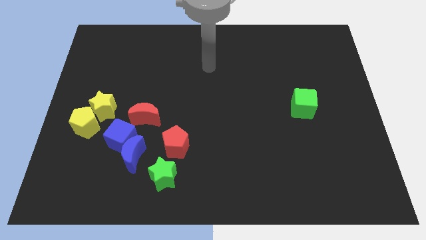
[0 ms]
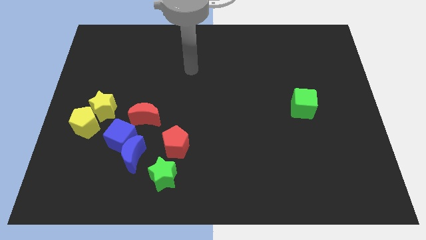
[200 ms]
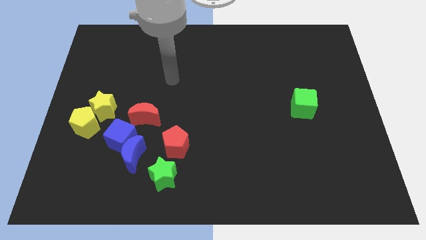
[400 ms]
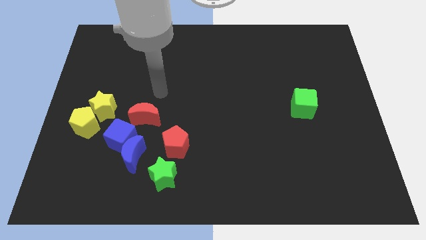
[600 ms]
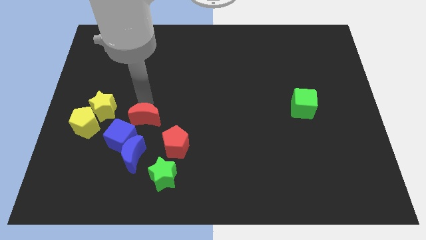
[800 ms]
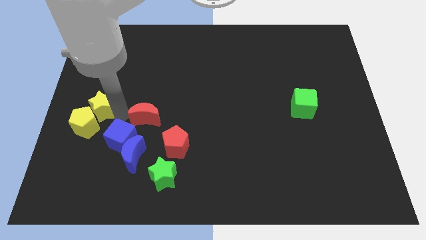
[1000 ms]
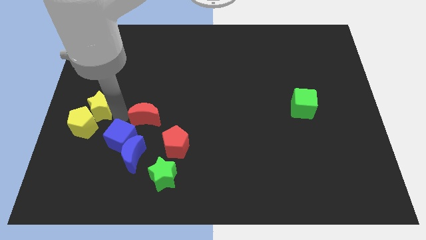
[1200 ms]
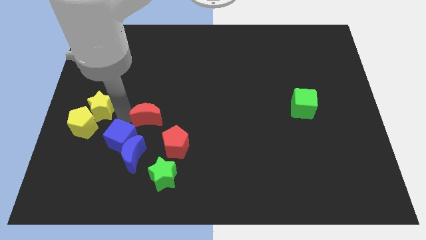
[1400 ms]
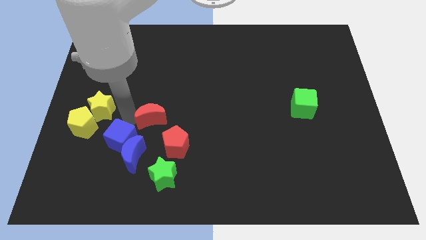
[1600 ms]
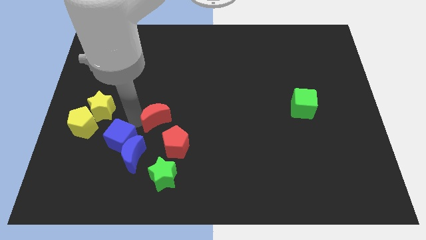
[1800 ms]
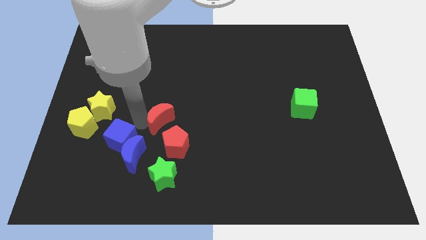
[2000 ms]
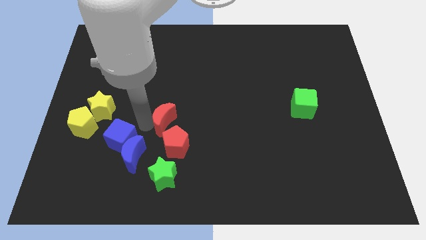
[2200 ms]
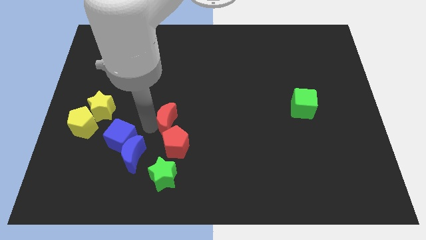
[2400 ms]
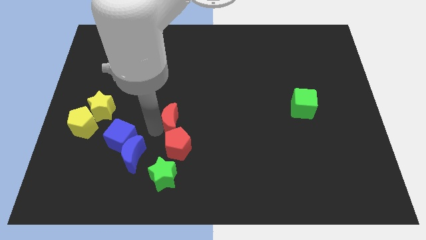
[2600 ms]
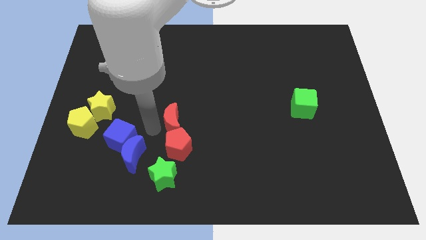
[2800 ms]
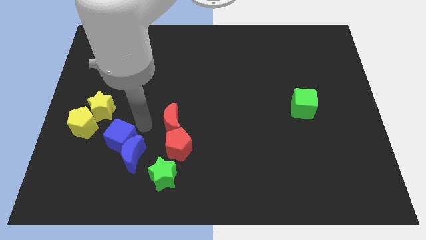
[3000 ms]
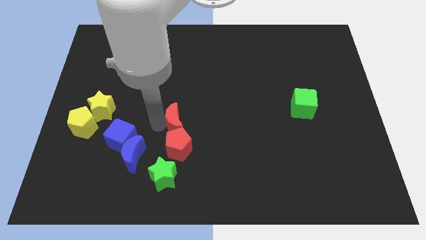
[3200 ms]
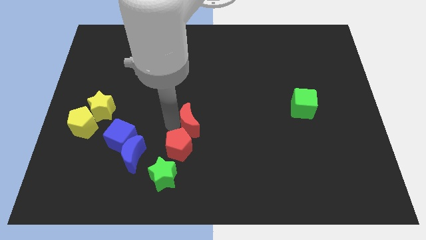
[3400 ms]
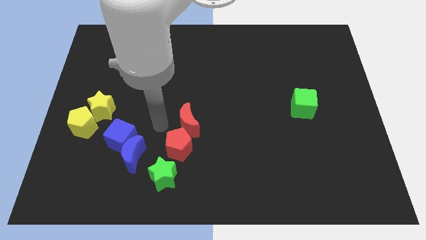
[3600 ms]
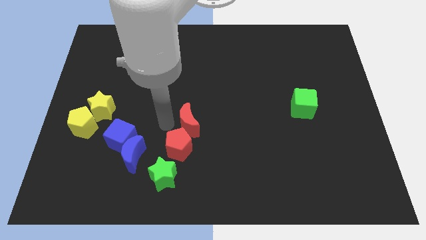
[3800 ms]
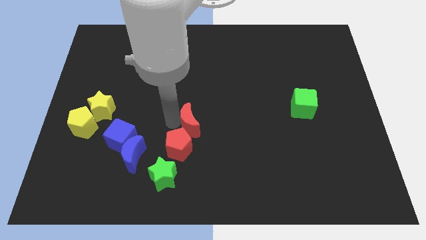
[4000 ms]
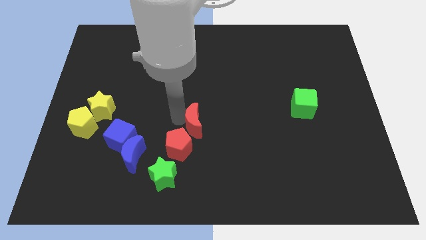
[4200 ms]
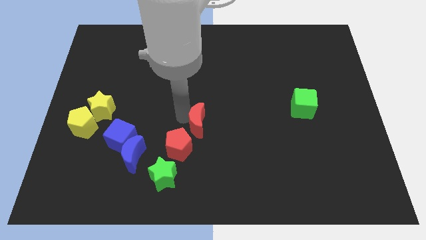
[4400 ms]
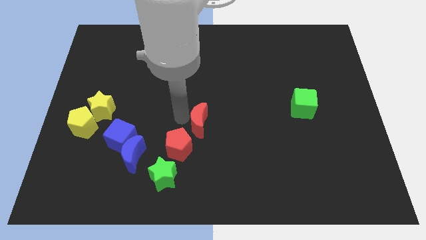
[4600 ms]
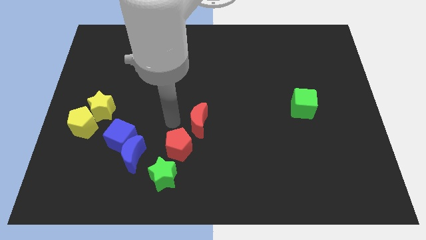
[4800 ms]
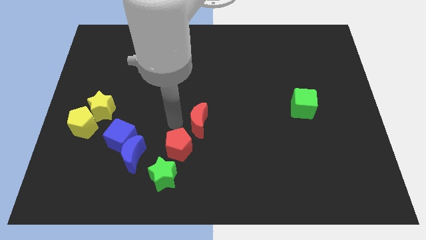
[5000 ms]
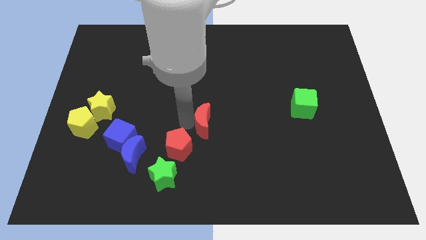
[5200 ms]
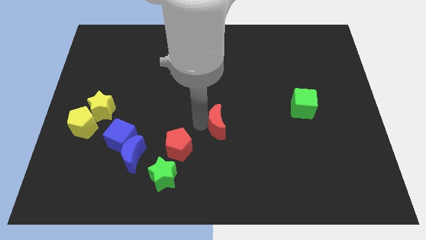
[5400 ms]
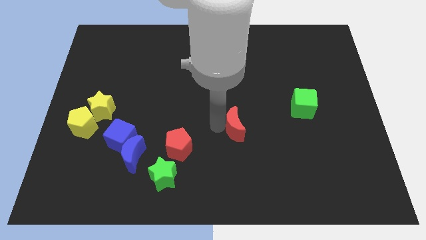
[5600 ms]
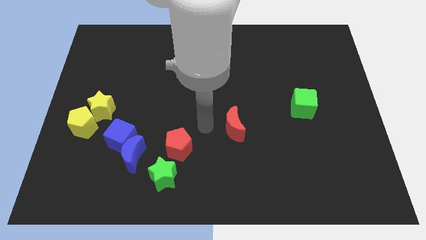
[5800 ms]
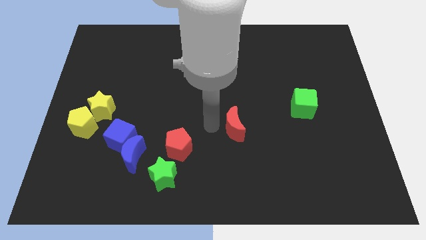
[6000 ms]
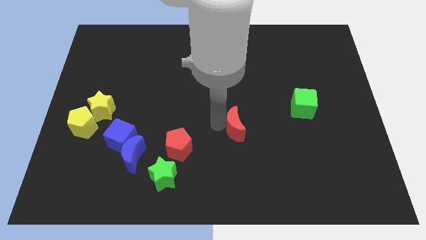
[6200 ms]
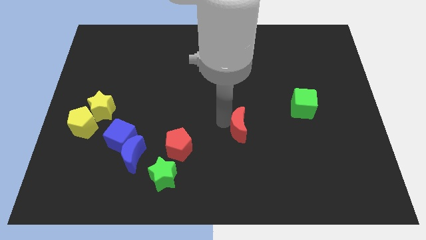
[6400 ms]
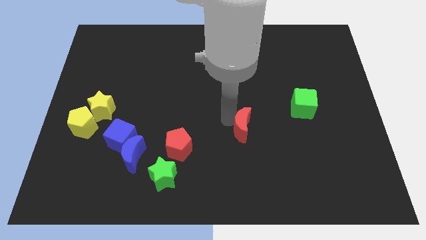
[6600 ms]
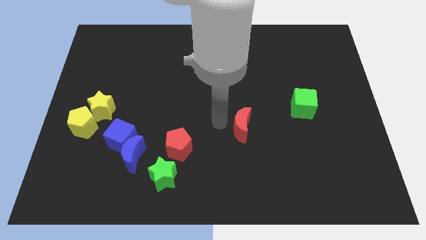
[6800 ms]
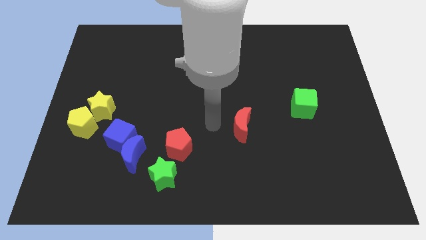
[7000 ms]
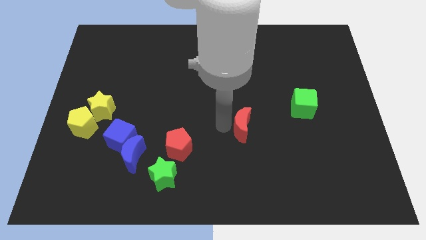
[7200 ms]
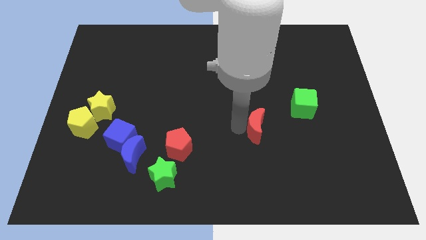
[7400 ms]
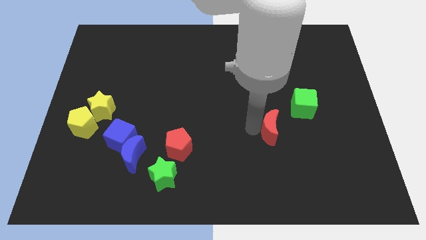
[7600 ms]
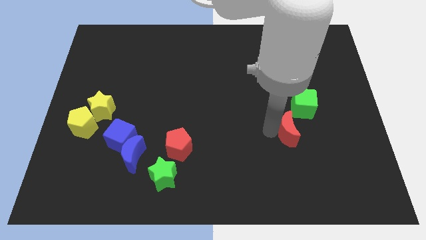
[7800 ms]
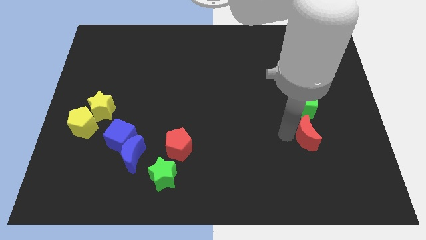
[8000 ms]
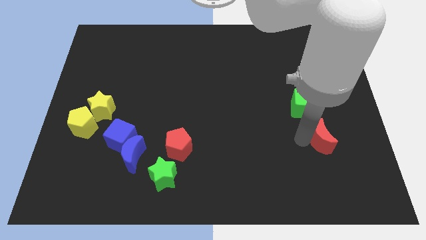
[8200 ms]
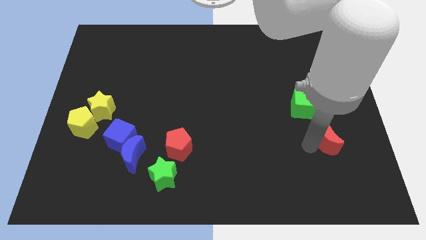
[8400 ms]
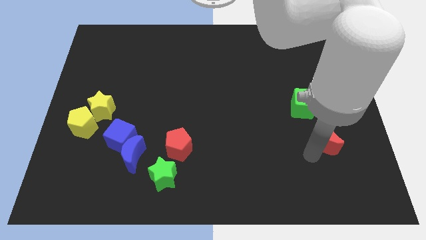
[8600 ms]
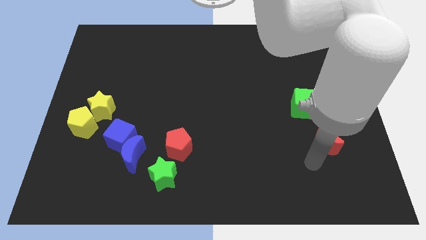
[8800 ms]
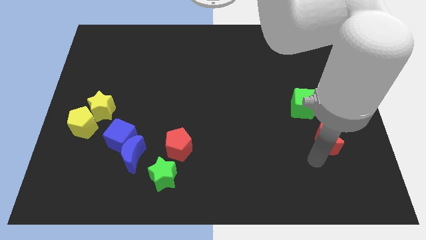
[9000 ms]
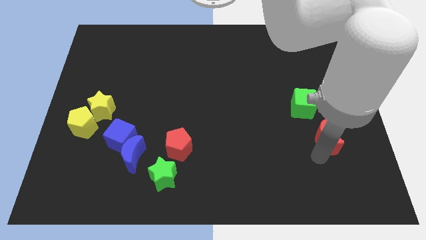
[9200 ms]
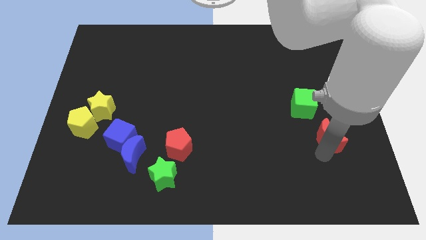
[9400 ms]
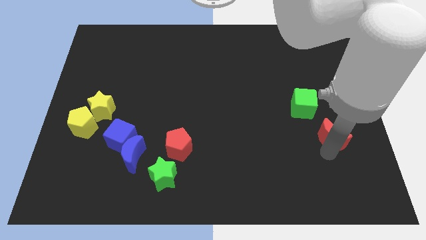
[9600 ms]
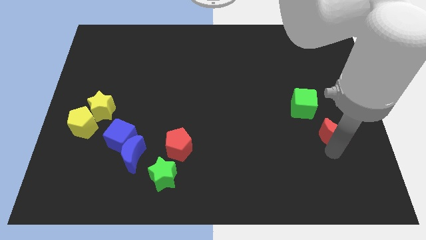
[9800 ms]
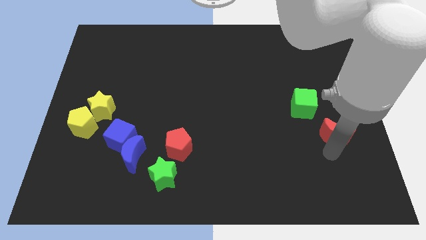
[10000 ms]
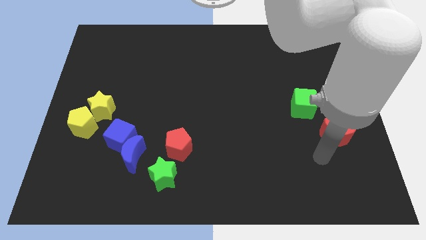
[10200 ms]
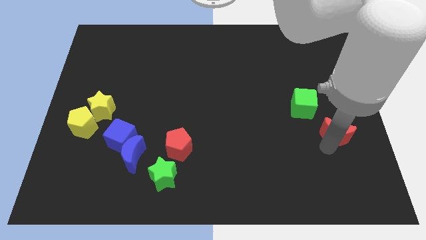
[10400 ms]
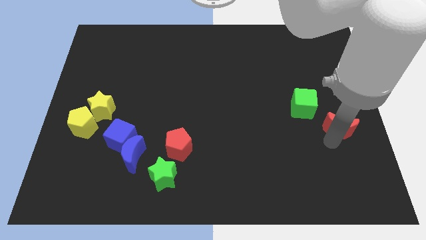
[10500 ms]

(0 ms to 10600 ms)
slide the red moon to the right side of the board
